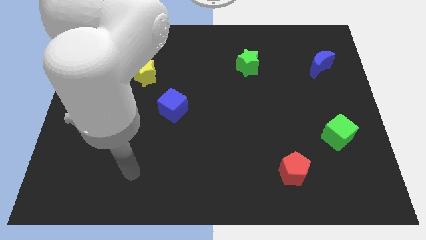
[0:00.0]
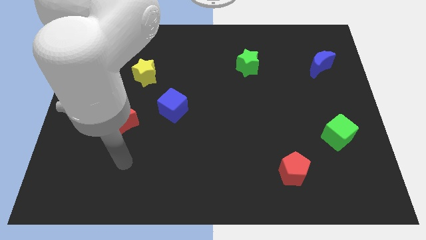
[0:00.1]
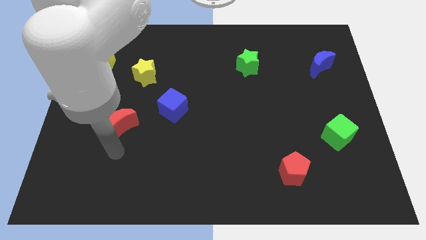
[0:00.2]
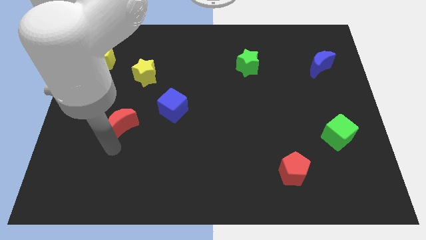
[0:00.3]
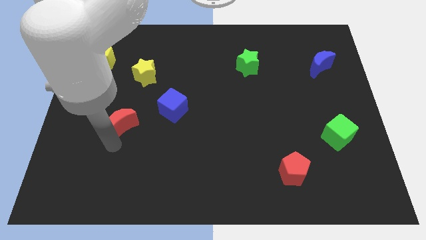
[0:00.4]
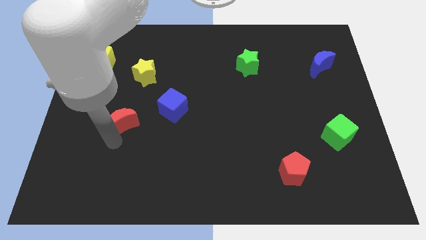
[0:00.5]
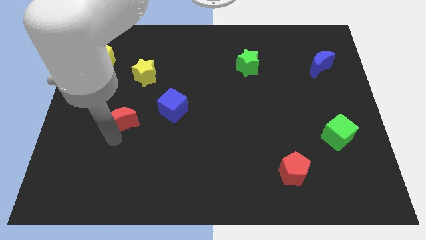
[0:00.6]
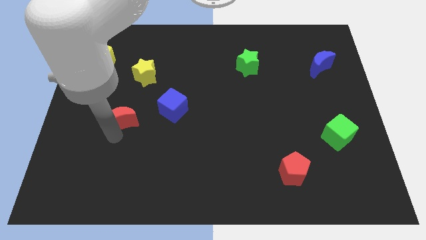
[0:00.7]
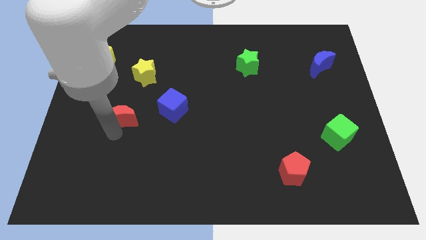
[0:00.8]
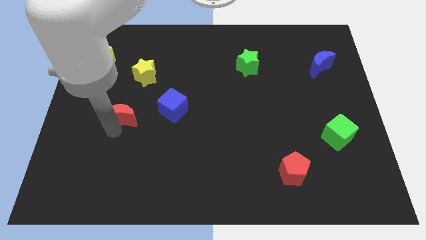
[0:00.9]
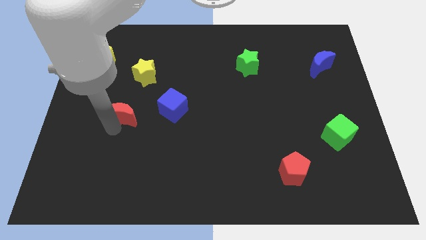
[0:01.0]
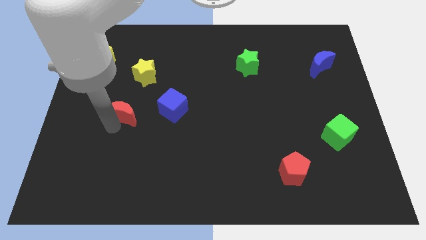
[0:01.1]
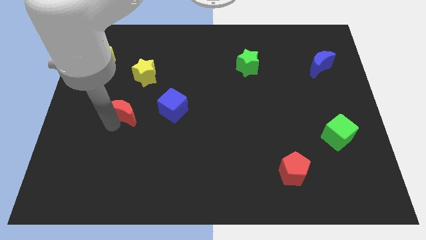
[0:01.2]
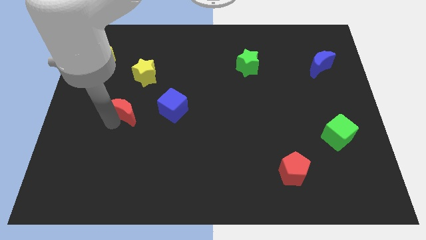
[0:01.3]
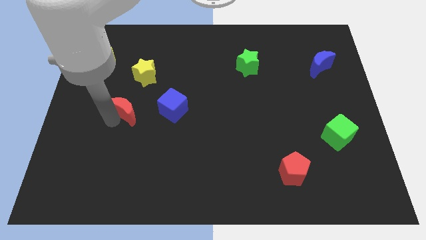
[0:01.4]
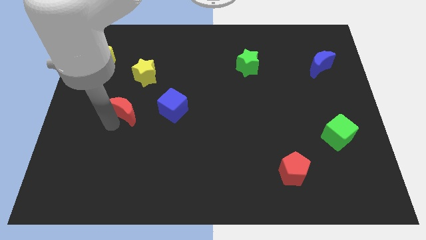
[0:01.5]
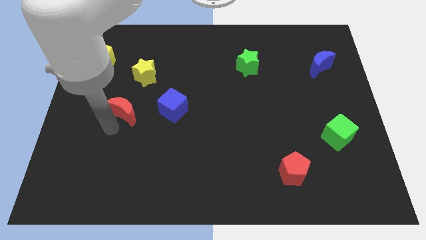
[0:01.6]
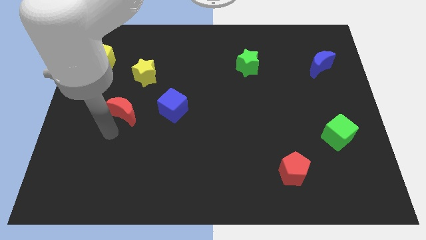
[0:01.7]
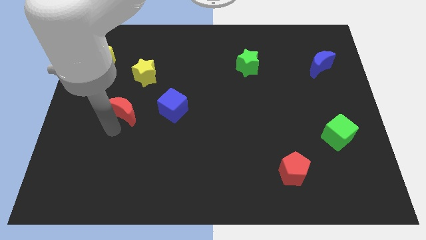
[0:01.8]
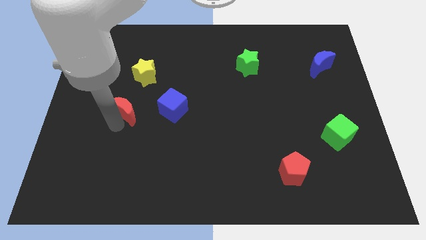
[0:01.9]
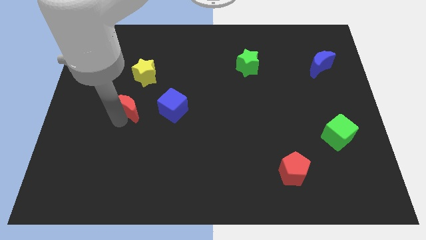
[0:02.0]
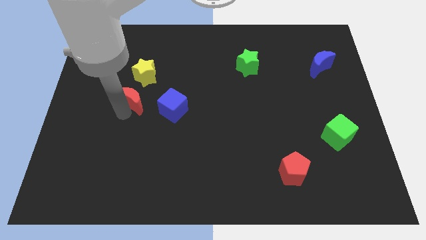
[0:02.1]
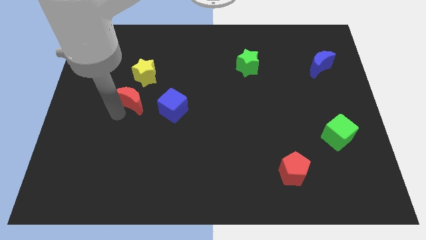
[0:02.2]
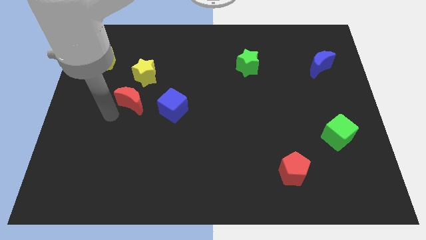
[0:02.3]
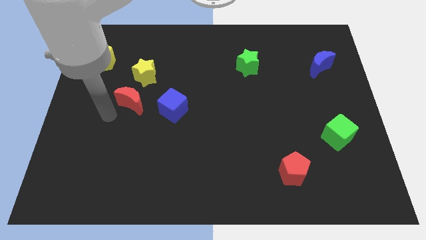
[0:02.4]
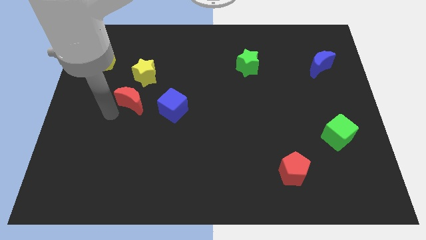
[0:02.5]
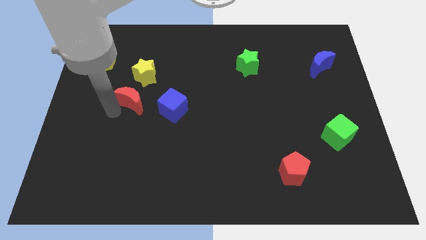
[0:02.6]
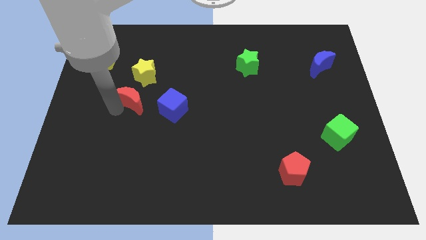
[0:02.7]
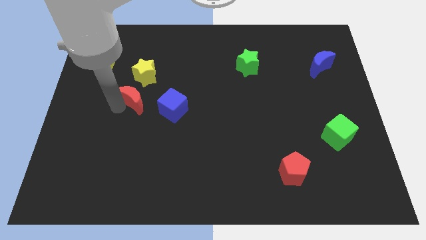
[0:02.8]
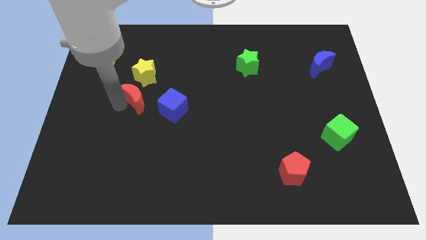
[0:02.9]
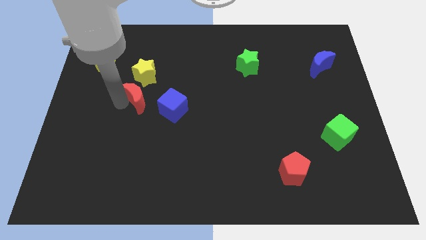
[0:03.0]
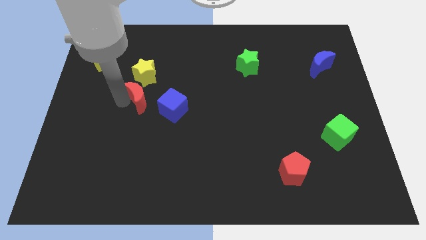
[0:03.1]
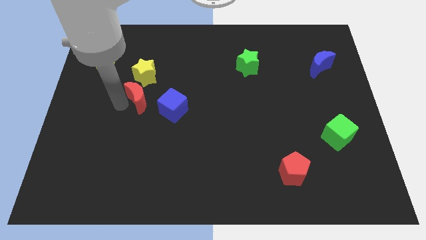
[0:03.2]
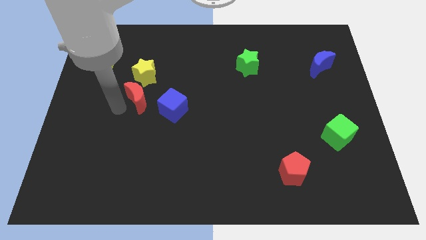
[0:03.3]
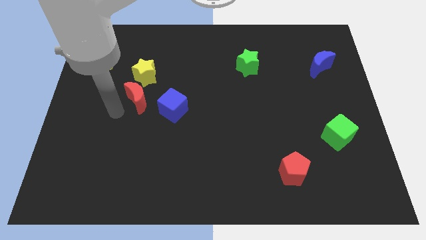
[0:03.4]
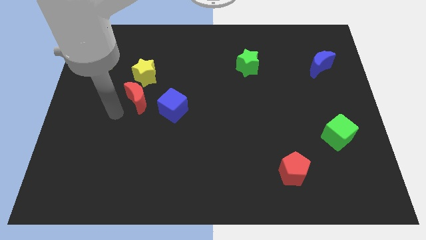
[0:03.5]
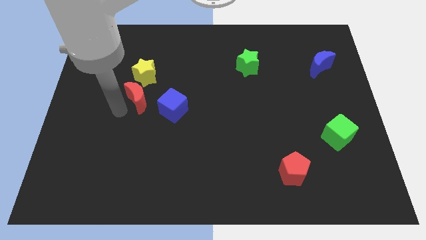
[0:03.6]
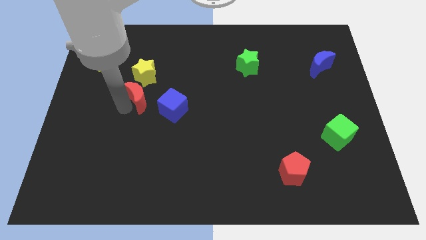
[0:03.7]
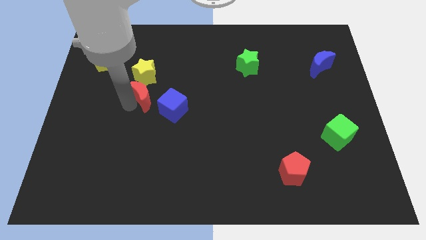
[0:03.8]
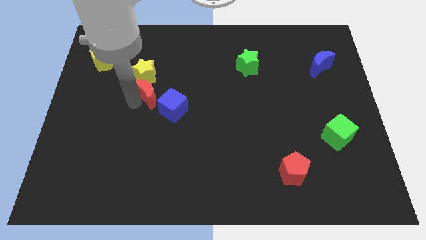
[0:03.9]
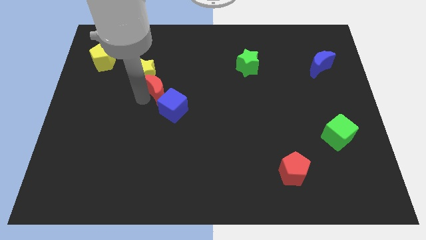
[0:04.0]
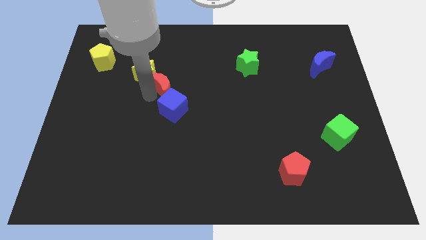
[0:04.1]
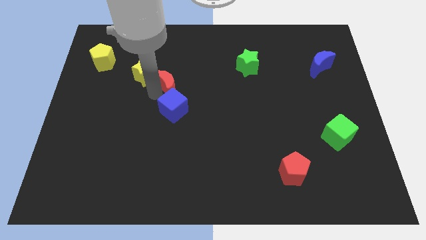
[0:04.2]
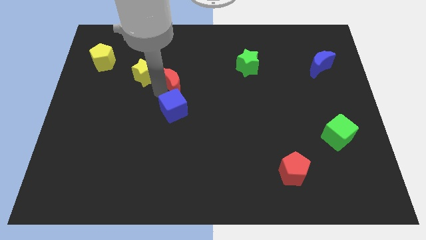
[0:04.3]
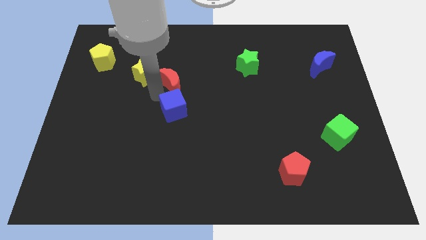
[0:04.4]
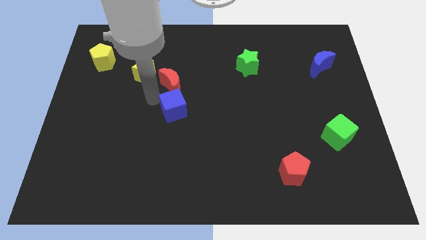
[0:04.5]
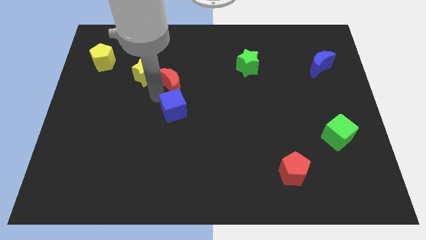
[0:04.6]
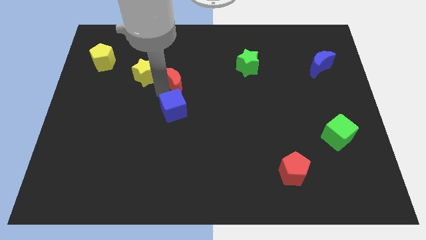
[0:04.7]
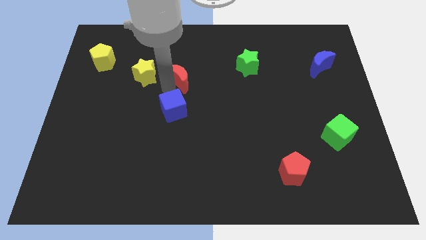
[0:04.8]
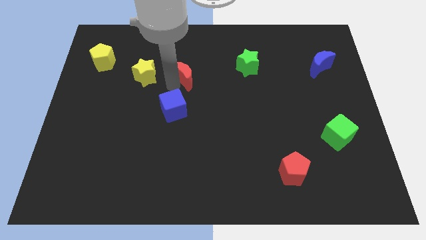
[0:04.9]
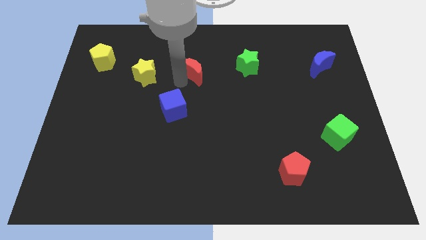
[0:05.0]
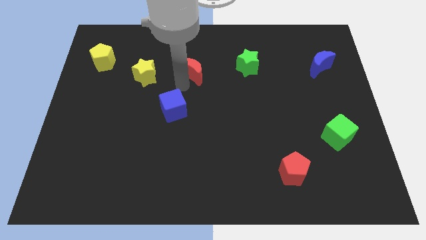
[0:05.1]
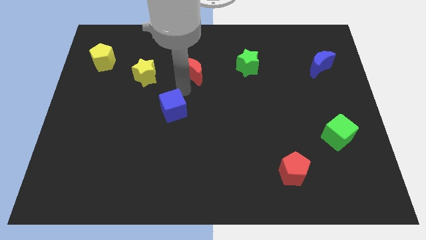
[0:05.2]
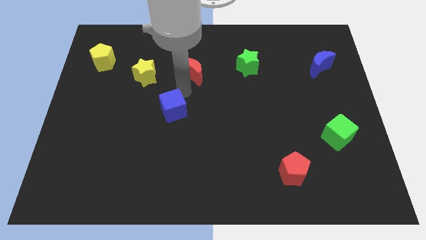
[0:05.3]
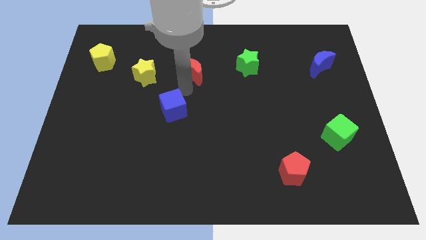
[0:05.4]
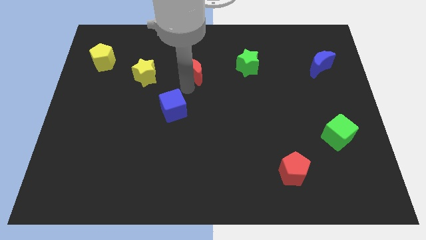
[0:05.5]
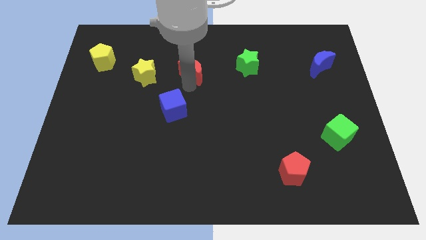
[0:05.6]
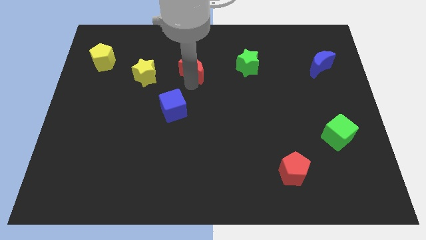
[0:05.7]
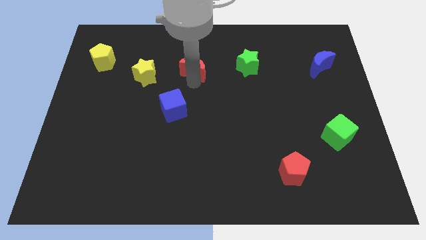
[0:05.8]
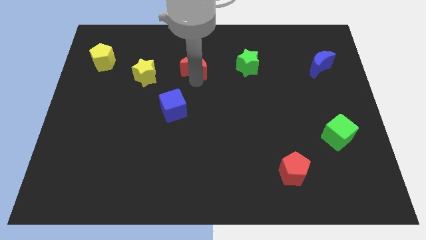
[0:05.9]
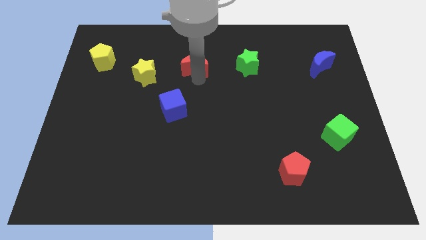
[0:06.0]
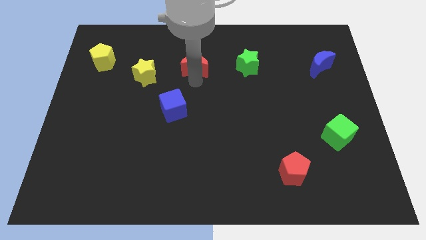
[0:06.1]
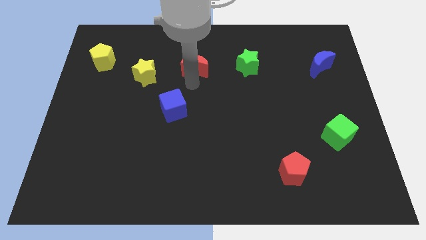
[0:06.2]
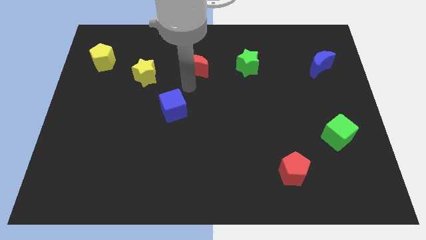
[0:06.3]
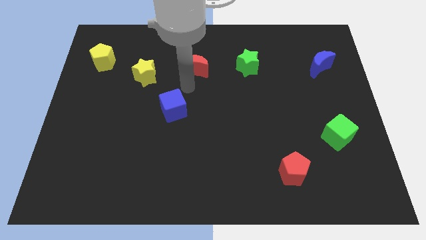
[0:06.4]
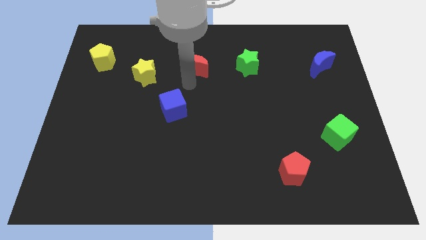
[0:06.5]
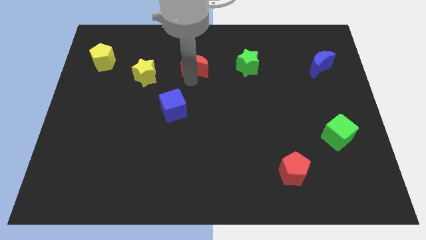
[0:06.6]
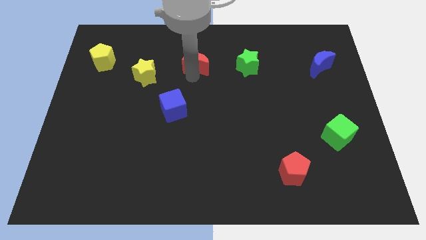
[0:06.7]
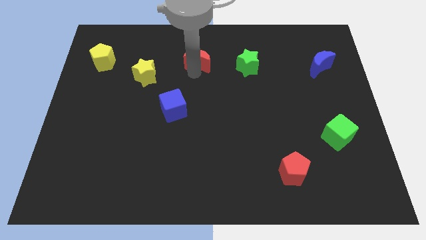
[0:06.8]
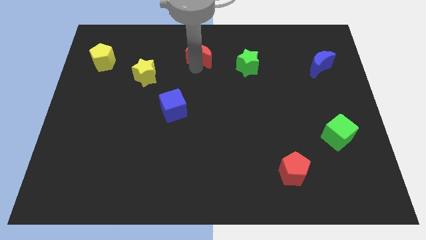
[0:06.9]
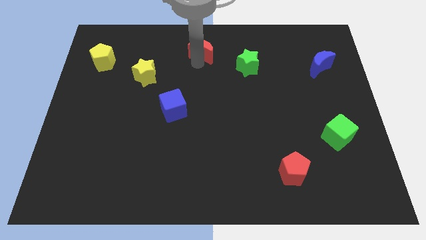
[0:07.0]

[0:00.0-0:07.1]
slide the red moon to the top
